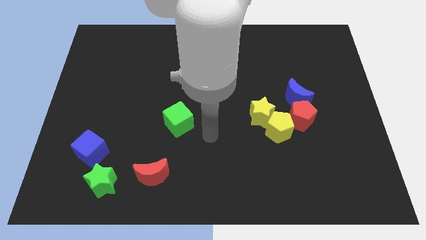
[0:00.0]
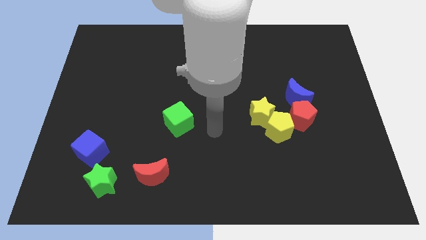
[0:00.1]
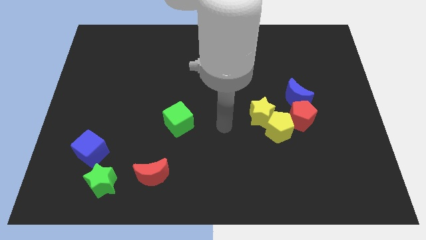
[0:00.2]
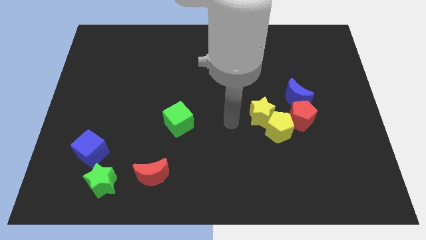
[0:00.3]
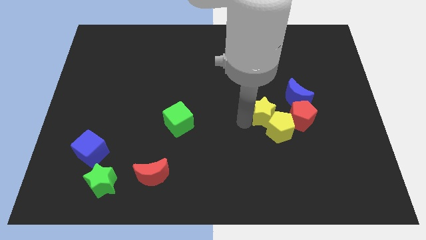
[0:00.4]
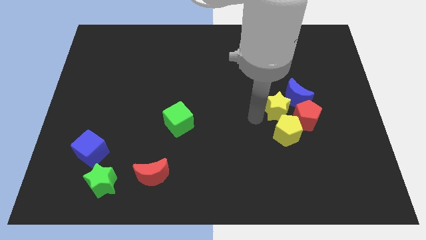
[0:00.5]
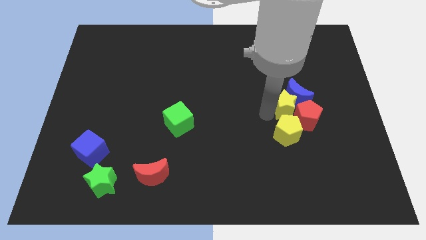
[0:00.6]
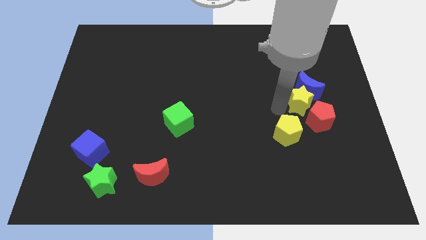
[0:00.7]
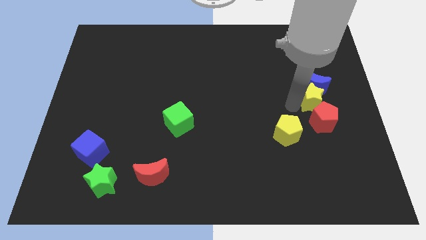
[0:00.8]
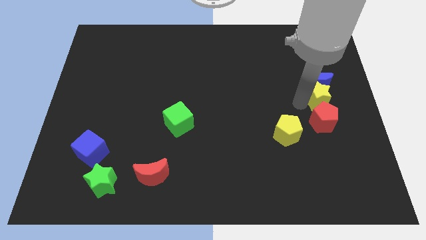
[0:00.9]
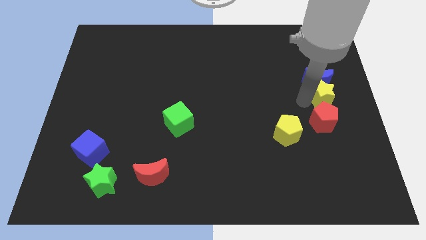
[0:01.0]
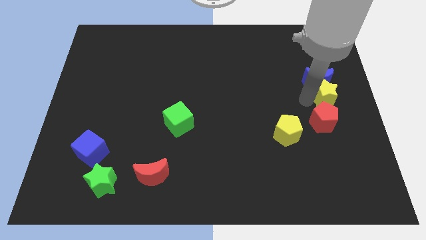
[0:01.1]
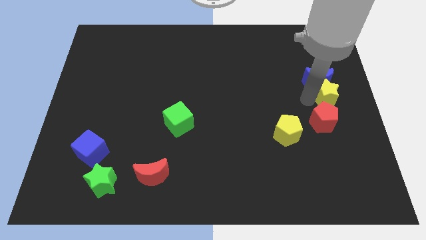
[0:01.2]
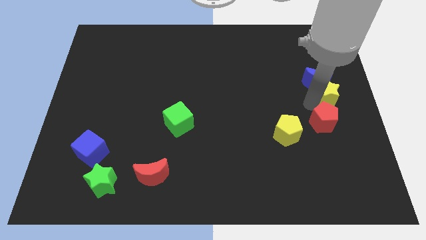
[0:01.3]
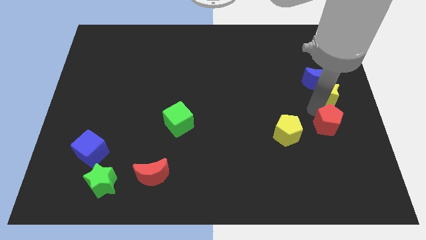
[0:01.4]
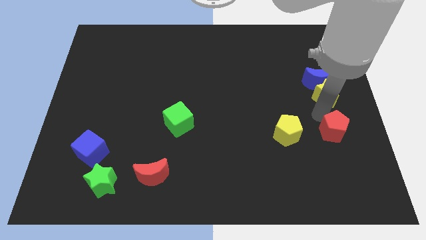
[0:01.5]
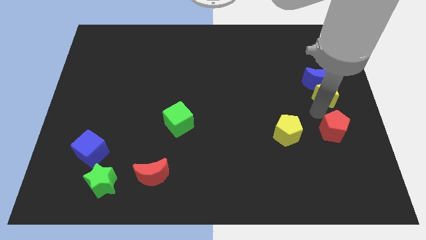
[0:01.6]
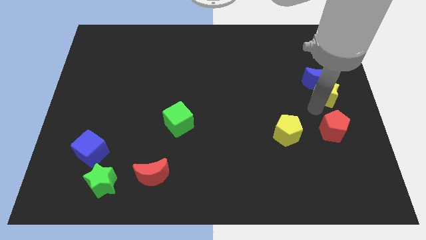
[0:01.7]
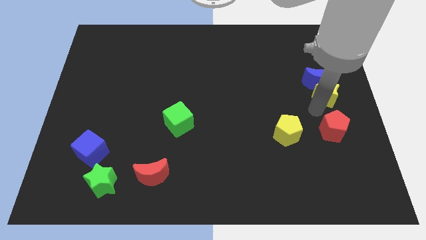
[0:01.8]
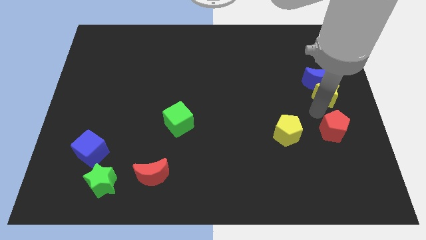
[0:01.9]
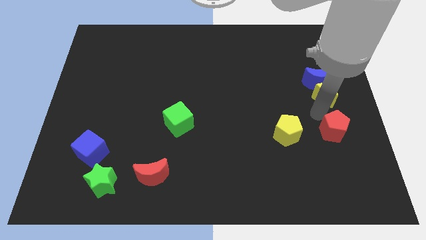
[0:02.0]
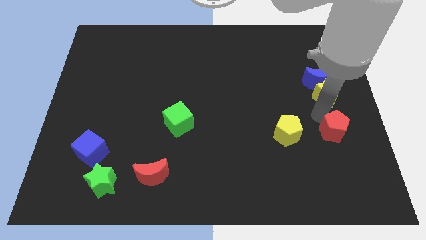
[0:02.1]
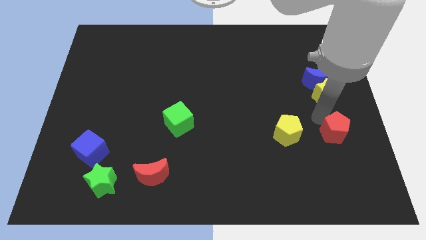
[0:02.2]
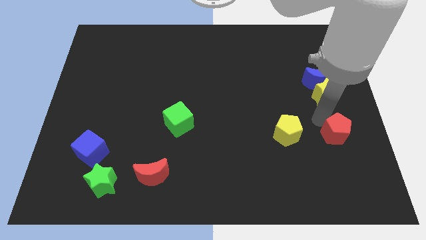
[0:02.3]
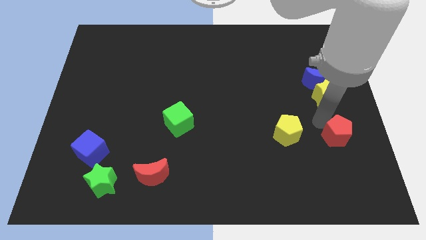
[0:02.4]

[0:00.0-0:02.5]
pull the red pentagon apart from the yellow pentagon, blue moon, and yellow star

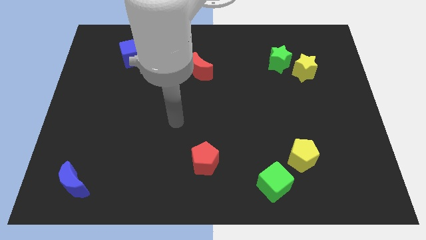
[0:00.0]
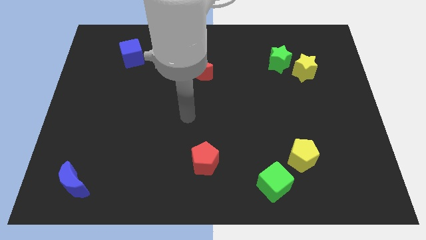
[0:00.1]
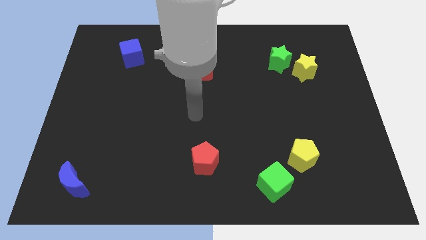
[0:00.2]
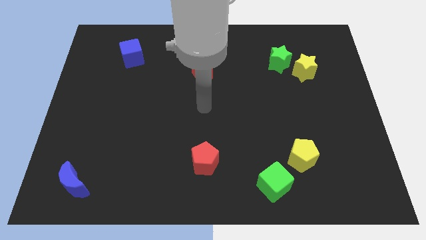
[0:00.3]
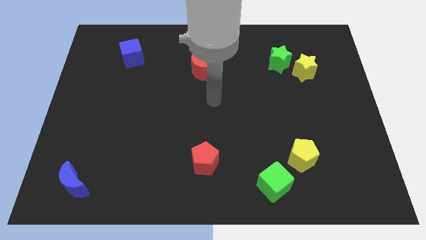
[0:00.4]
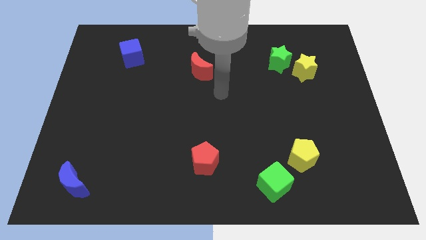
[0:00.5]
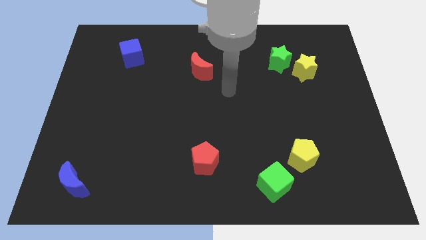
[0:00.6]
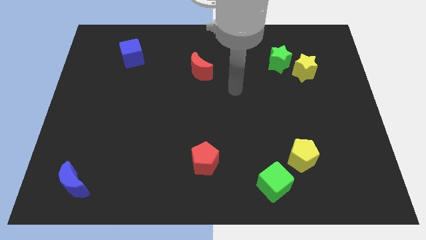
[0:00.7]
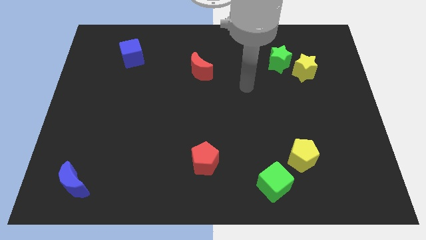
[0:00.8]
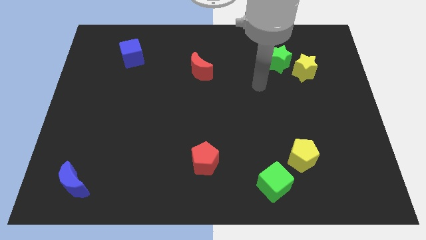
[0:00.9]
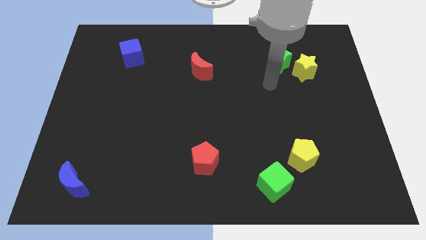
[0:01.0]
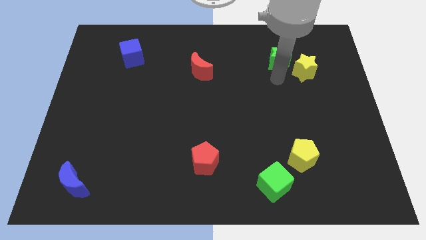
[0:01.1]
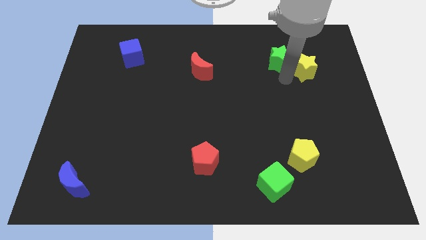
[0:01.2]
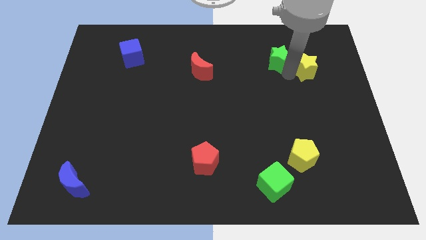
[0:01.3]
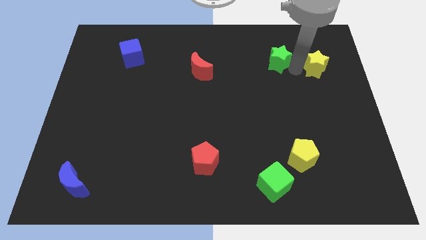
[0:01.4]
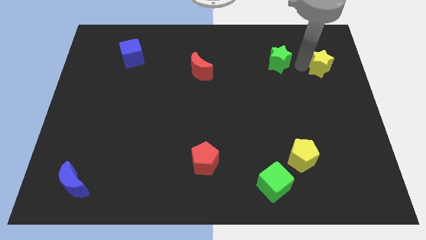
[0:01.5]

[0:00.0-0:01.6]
move the green star away from the yellow star

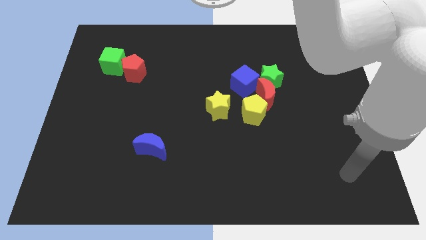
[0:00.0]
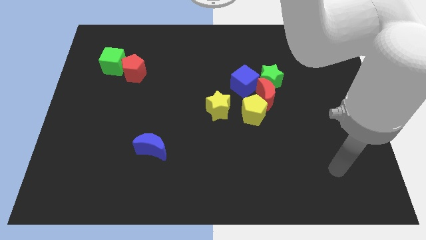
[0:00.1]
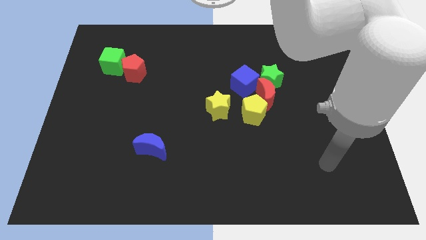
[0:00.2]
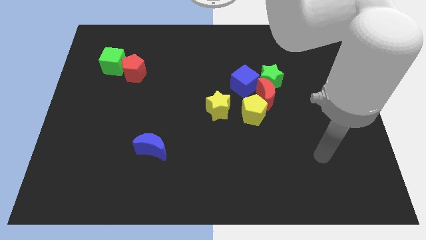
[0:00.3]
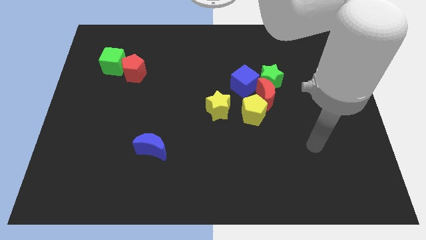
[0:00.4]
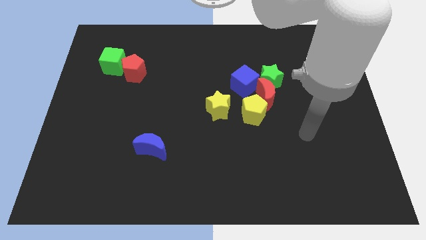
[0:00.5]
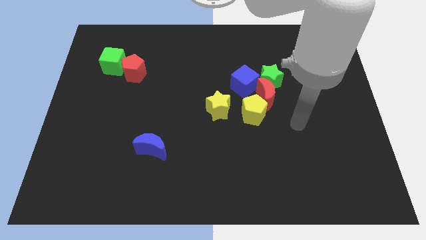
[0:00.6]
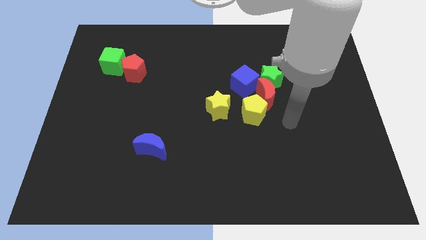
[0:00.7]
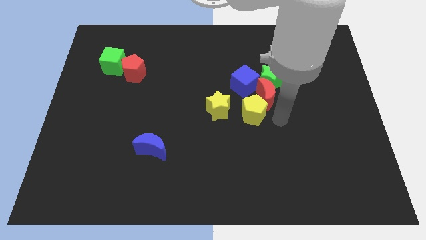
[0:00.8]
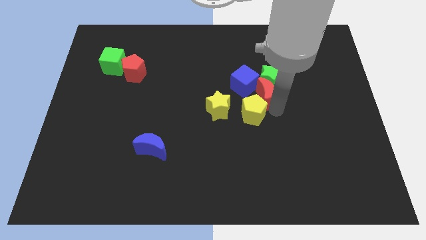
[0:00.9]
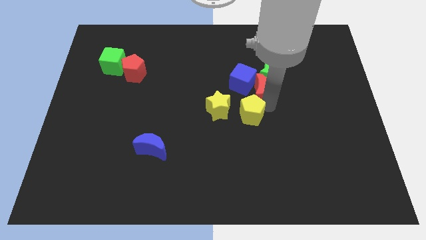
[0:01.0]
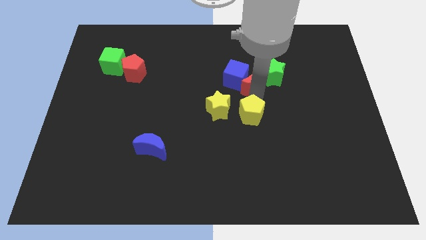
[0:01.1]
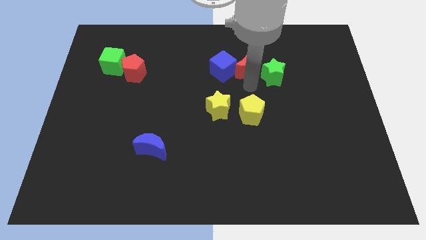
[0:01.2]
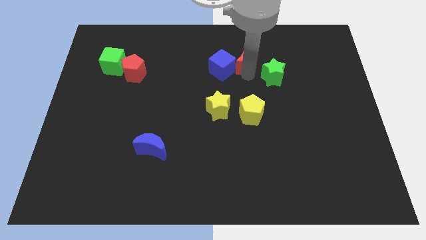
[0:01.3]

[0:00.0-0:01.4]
separate the green star from the red moon and blue cube

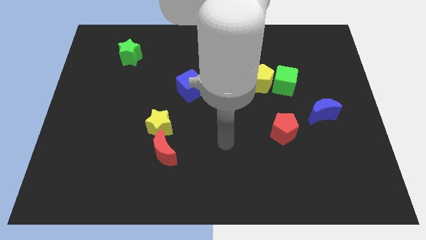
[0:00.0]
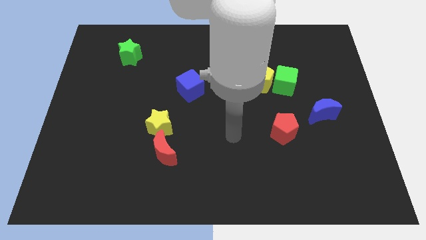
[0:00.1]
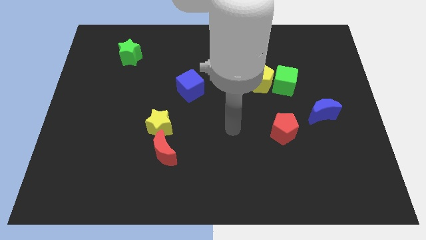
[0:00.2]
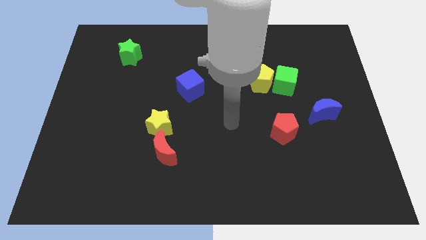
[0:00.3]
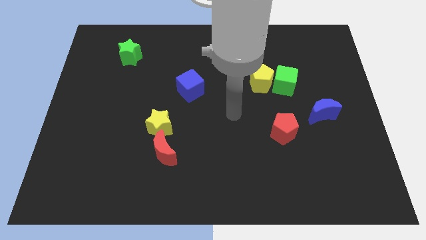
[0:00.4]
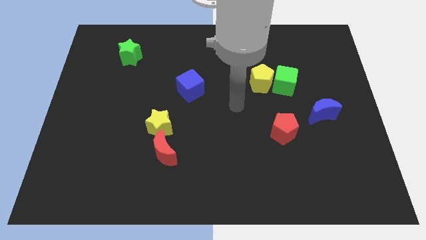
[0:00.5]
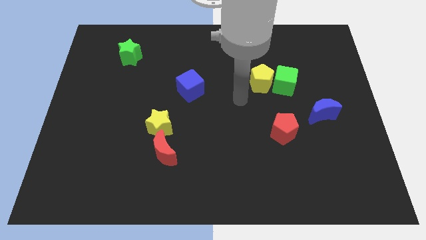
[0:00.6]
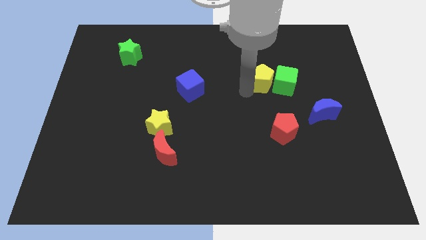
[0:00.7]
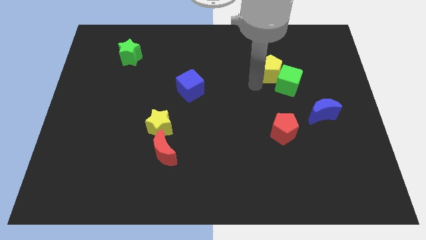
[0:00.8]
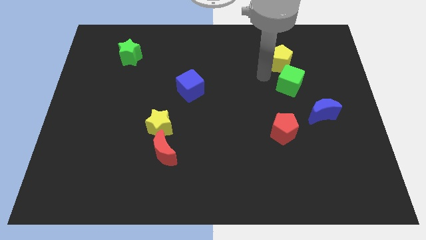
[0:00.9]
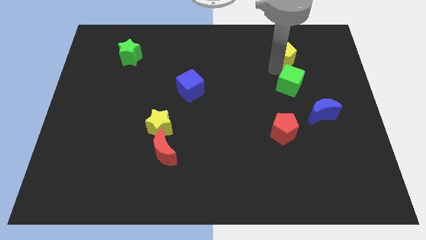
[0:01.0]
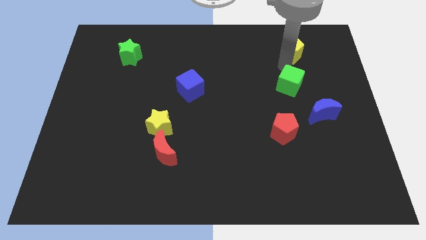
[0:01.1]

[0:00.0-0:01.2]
separate the green cube from the yellow pentagon

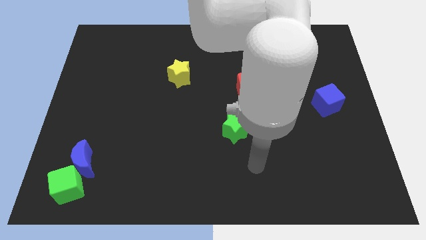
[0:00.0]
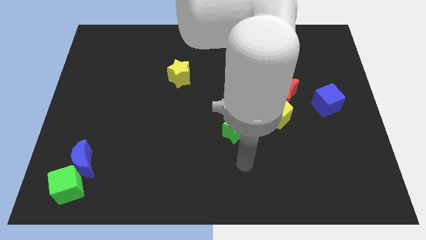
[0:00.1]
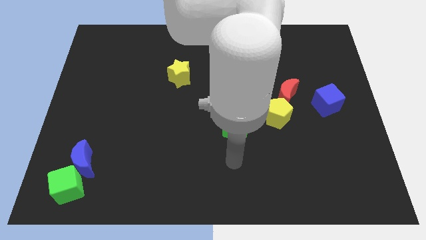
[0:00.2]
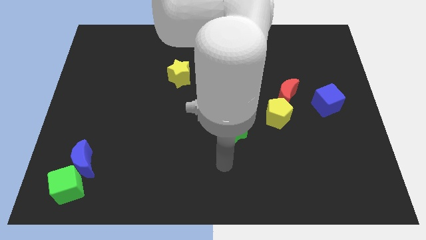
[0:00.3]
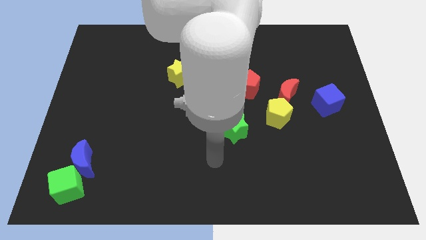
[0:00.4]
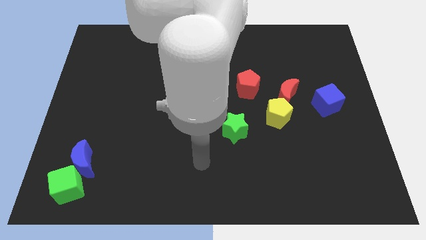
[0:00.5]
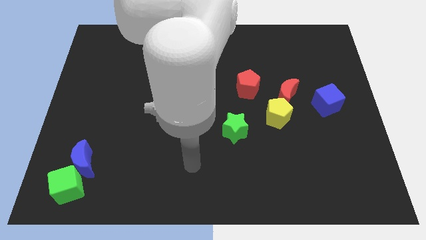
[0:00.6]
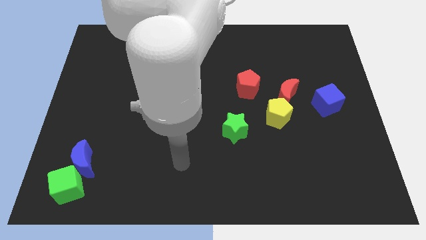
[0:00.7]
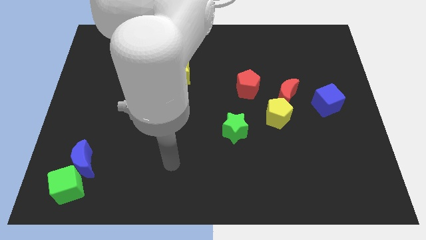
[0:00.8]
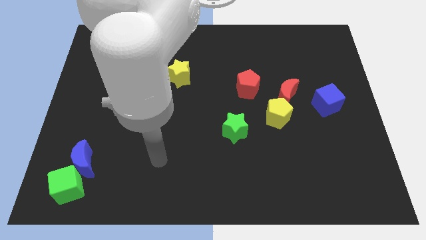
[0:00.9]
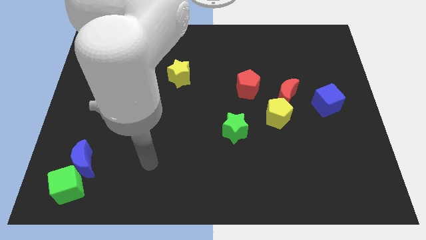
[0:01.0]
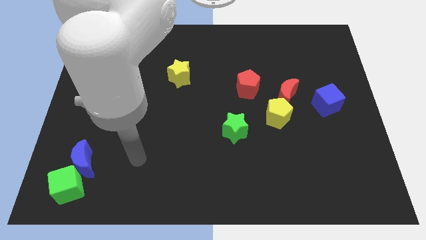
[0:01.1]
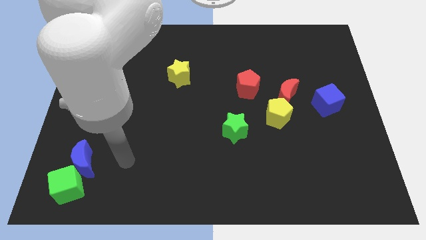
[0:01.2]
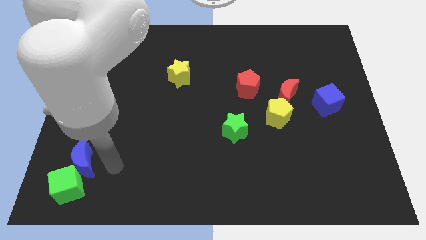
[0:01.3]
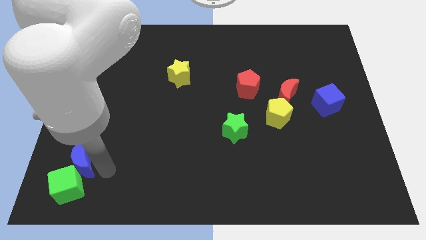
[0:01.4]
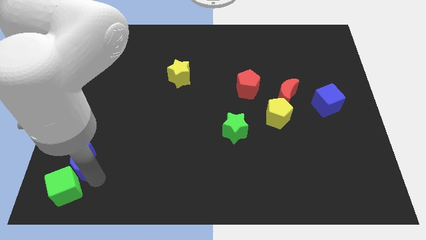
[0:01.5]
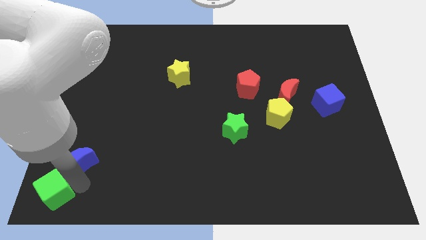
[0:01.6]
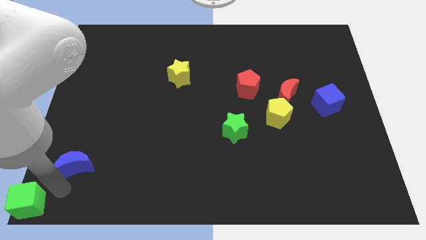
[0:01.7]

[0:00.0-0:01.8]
separate the blue moon from the green cube

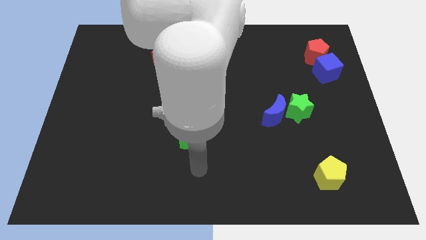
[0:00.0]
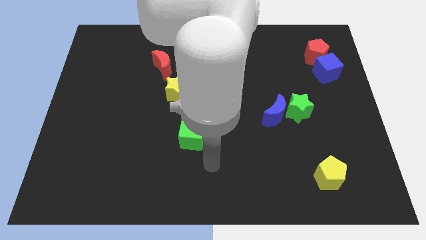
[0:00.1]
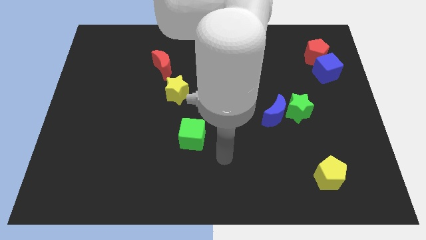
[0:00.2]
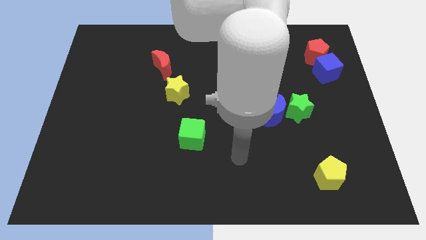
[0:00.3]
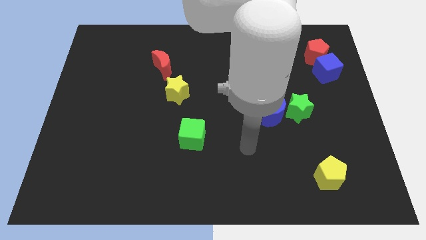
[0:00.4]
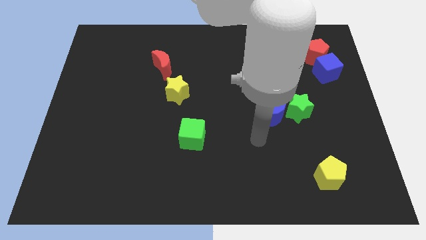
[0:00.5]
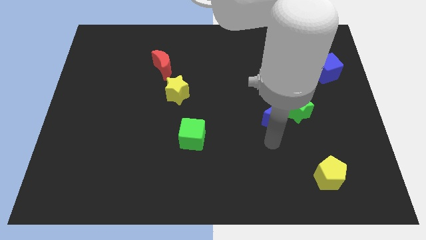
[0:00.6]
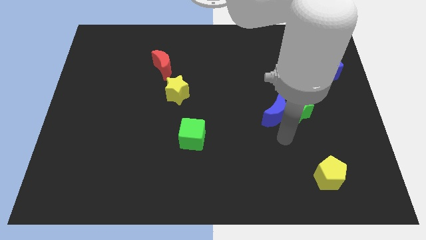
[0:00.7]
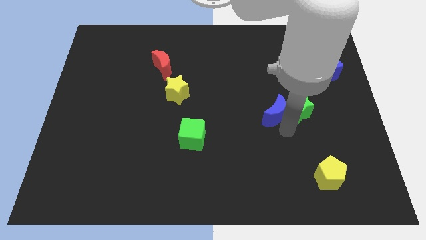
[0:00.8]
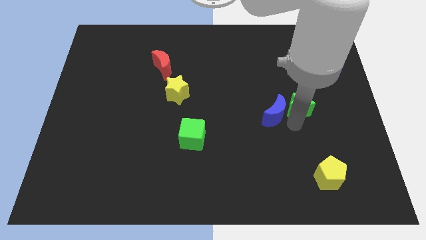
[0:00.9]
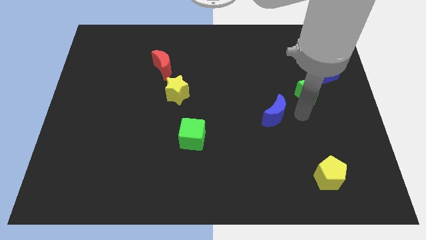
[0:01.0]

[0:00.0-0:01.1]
move the blue moon away from the green star
